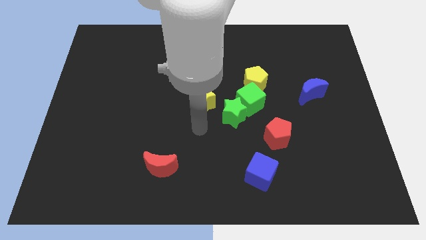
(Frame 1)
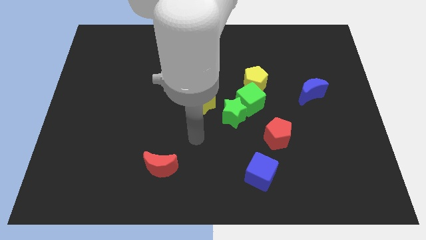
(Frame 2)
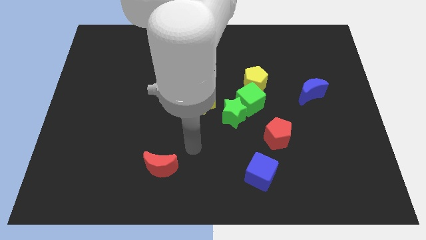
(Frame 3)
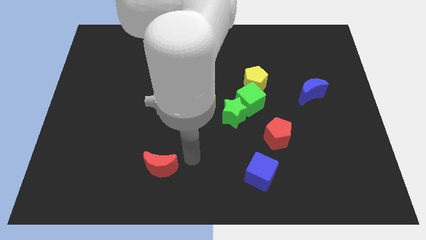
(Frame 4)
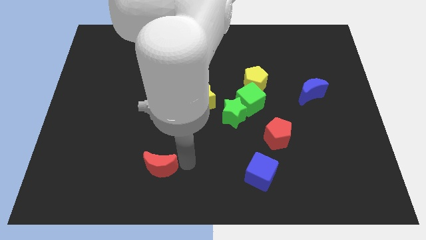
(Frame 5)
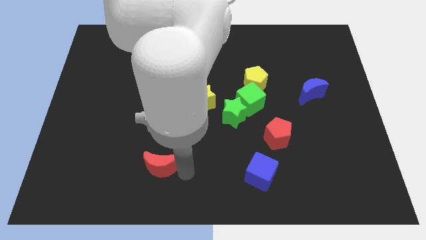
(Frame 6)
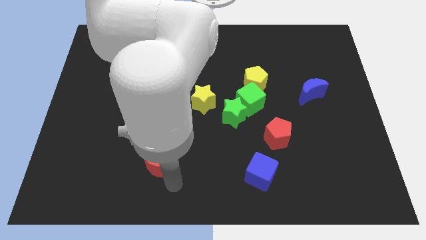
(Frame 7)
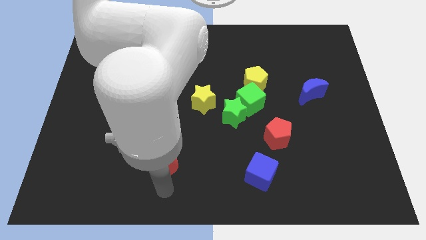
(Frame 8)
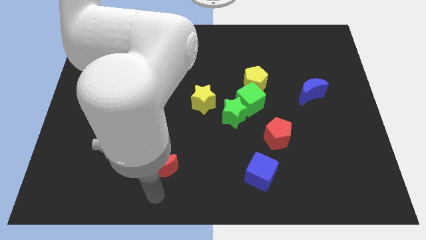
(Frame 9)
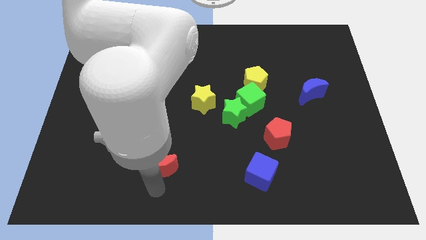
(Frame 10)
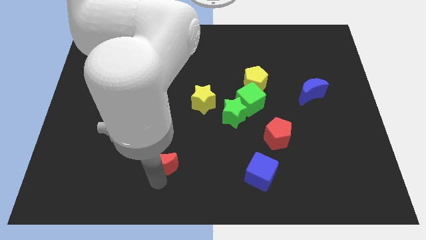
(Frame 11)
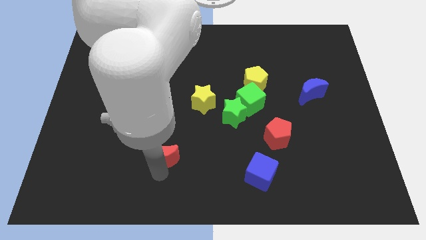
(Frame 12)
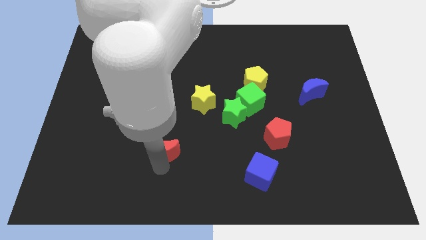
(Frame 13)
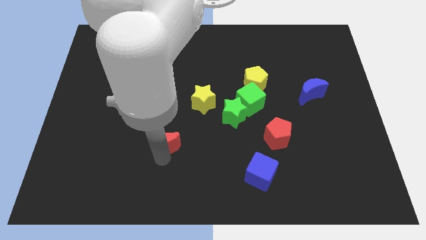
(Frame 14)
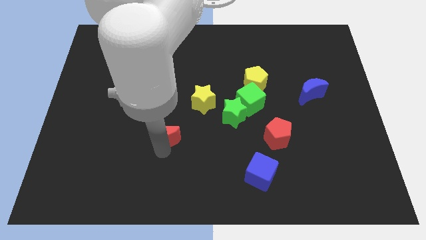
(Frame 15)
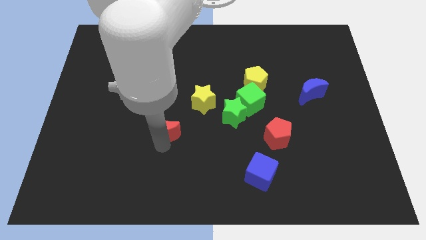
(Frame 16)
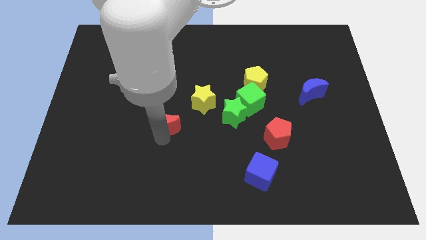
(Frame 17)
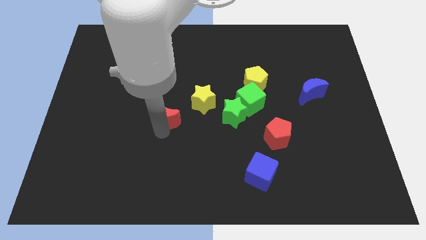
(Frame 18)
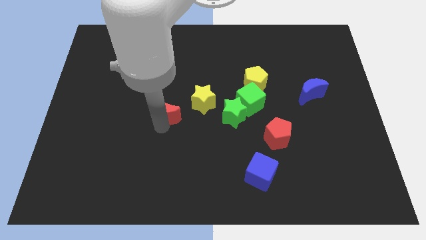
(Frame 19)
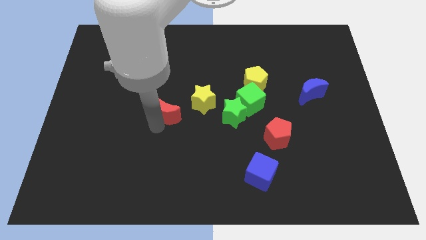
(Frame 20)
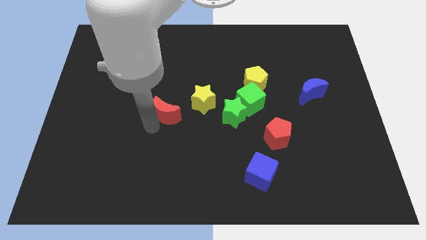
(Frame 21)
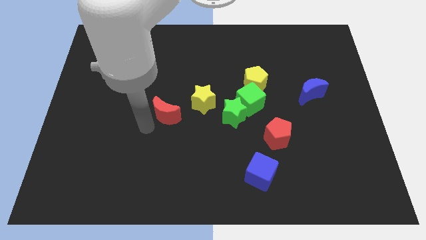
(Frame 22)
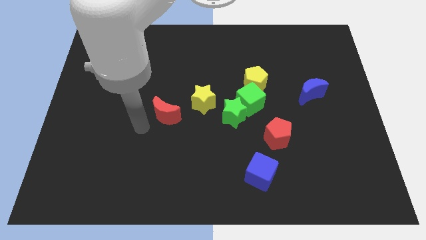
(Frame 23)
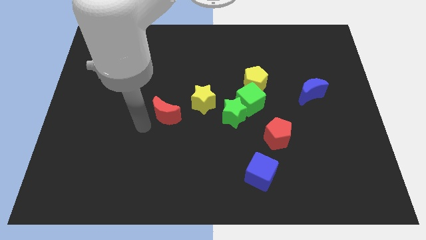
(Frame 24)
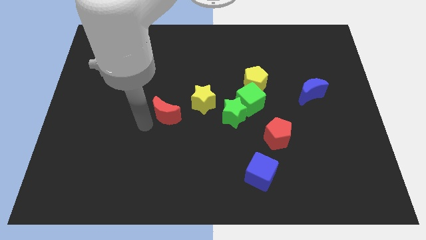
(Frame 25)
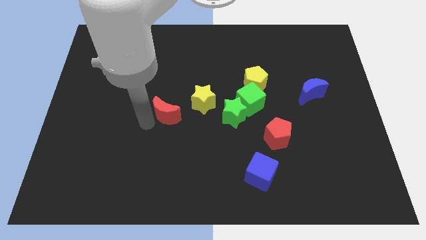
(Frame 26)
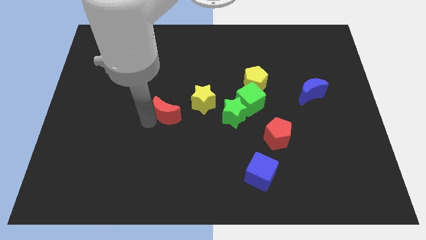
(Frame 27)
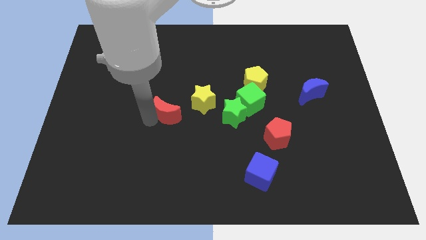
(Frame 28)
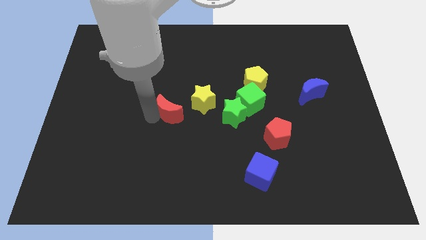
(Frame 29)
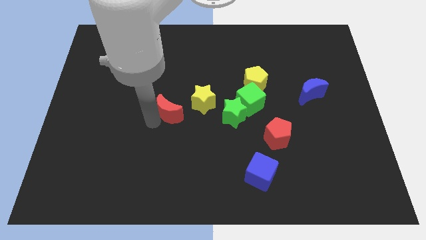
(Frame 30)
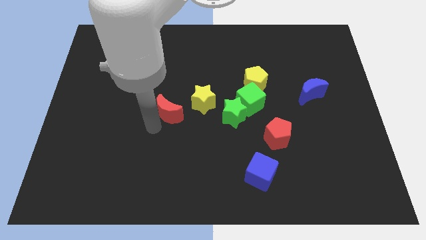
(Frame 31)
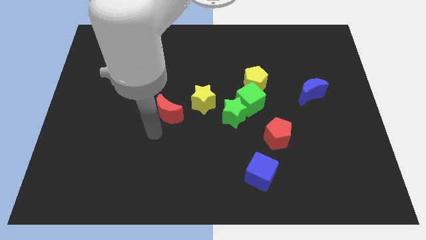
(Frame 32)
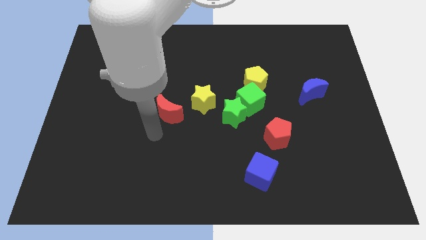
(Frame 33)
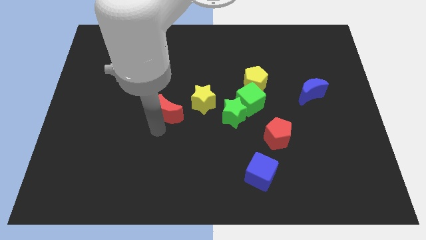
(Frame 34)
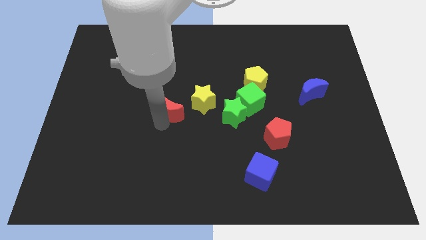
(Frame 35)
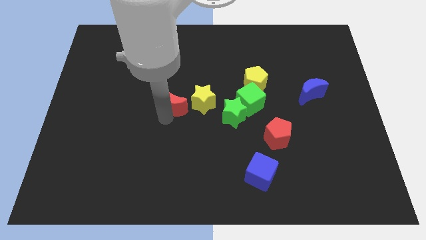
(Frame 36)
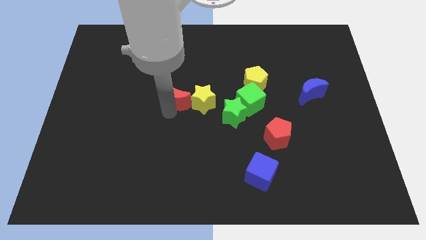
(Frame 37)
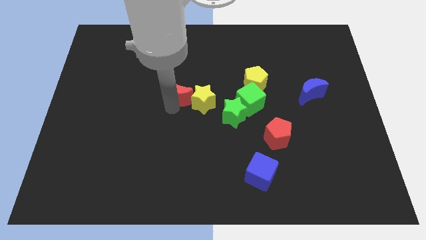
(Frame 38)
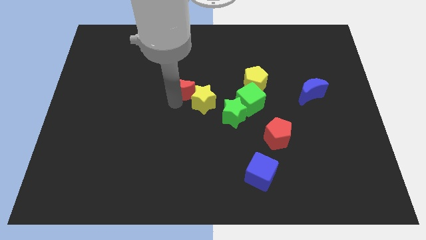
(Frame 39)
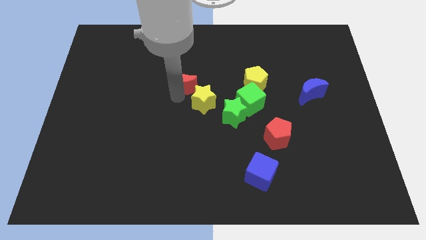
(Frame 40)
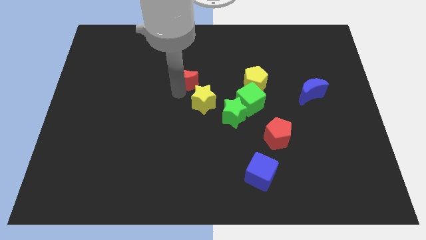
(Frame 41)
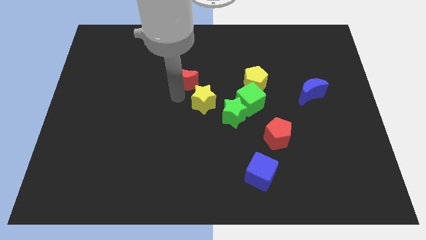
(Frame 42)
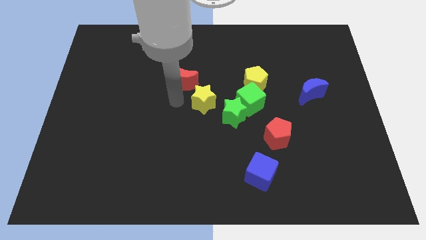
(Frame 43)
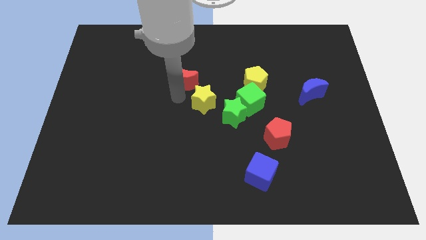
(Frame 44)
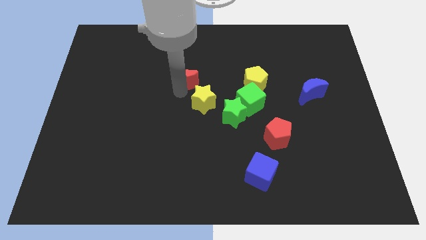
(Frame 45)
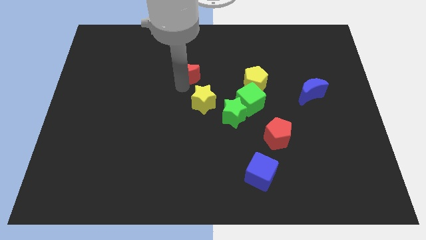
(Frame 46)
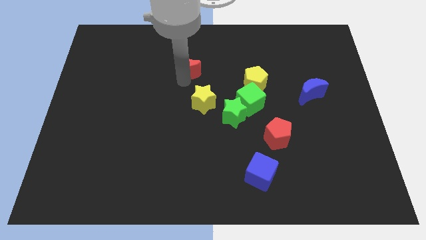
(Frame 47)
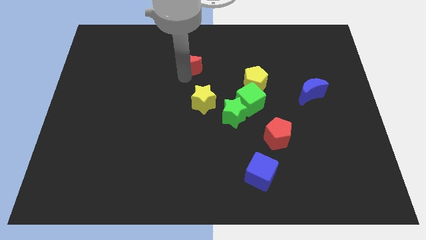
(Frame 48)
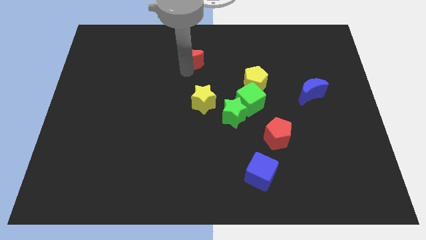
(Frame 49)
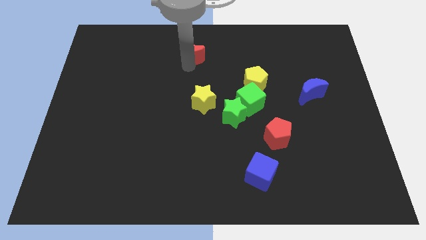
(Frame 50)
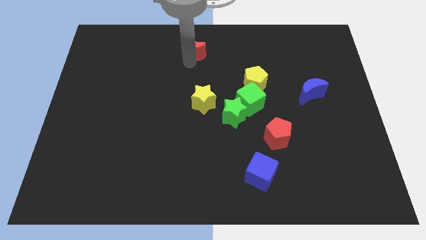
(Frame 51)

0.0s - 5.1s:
put the red moon to the towards your base
